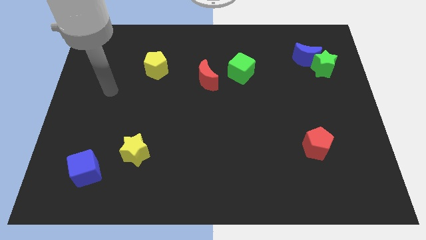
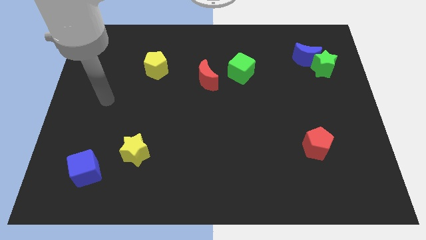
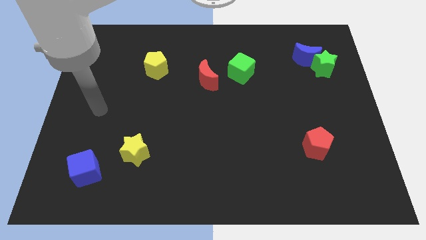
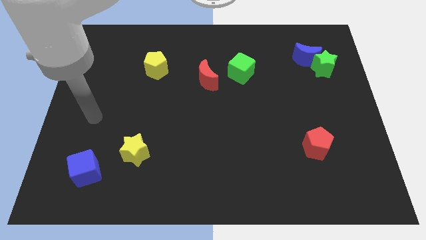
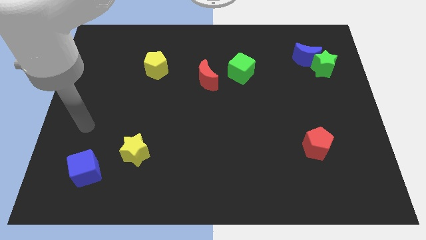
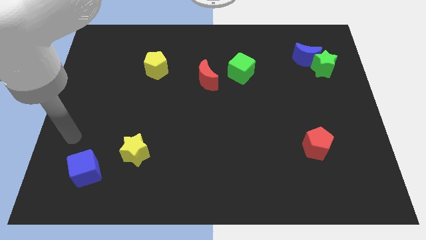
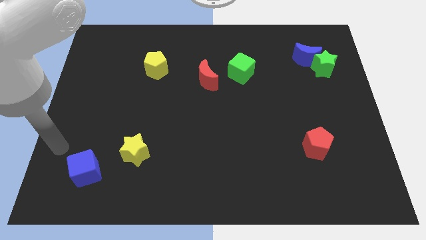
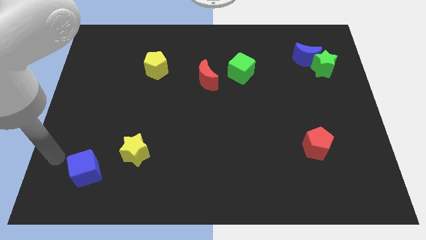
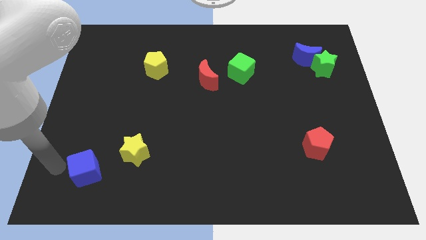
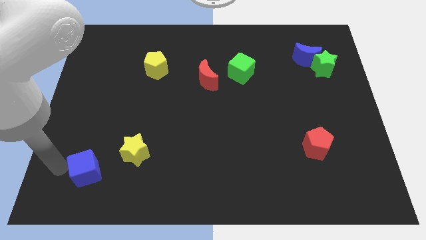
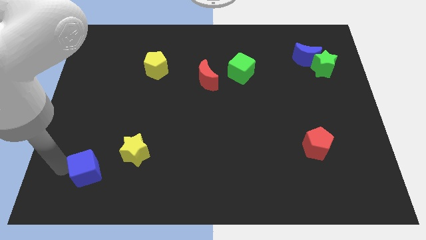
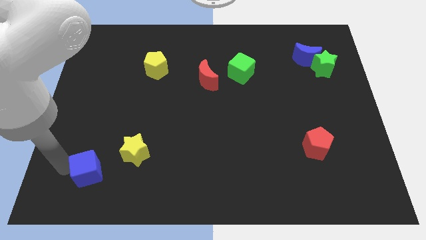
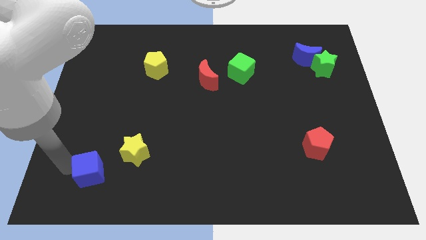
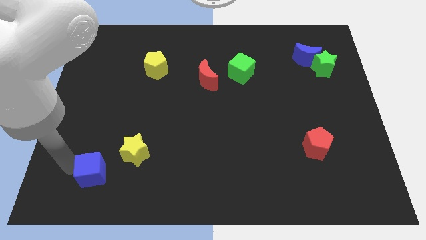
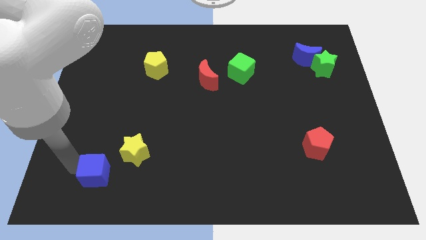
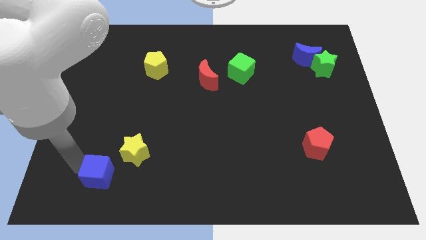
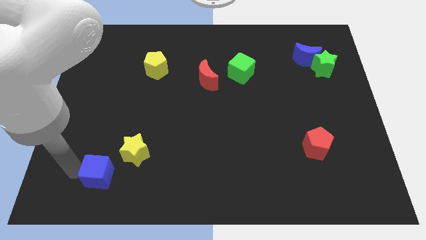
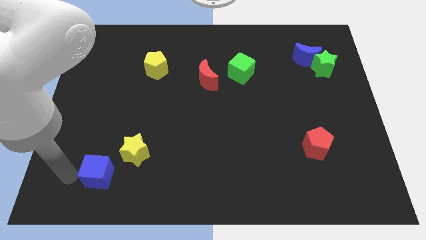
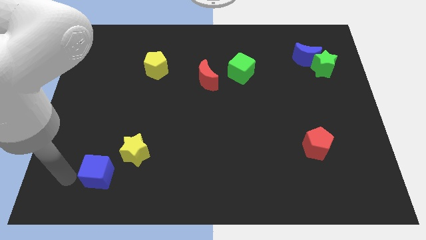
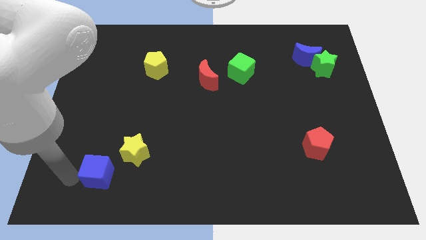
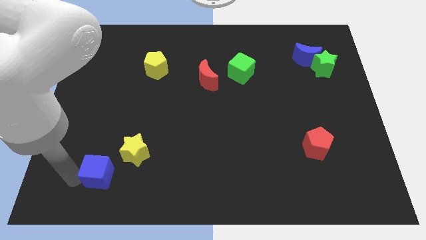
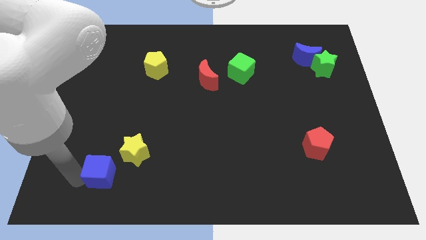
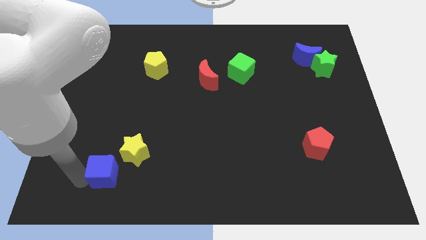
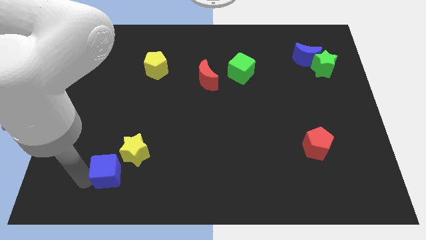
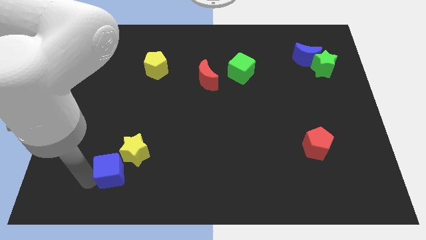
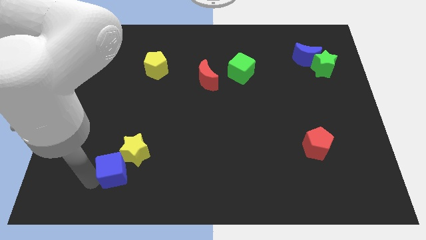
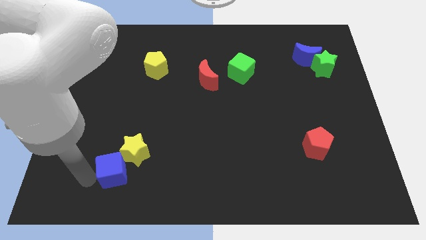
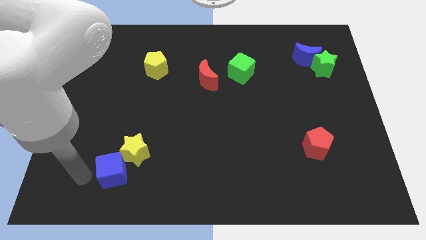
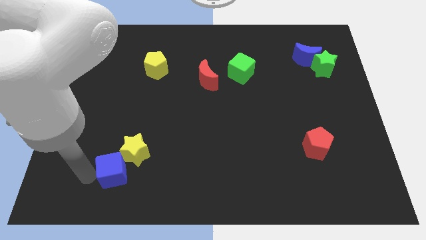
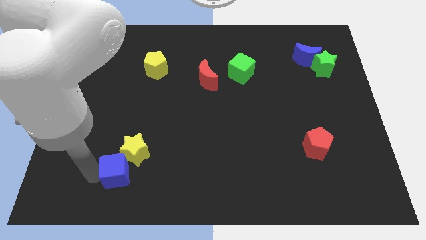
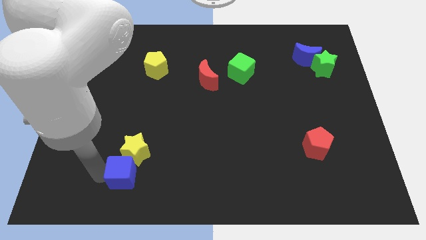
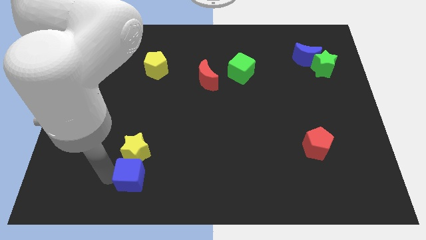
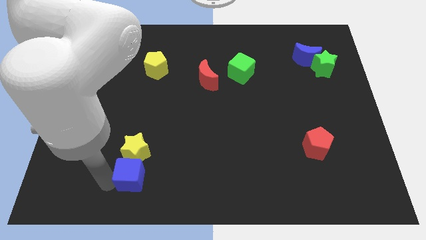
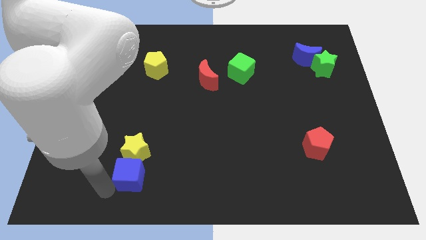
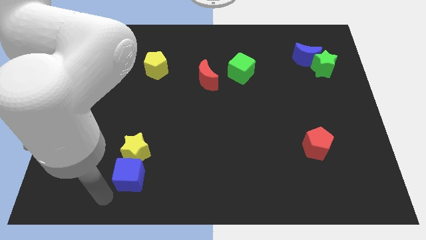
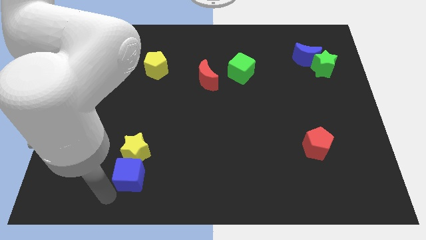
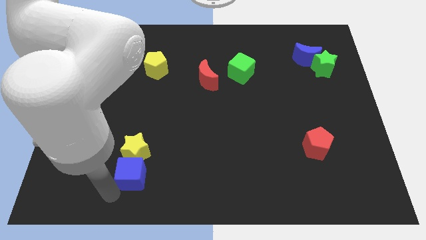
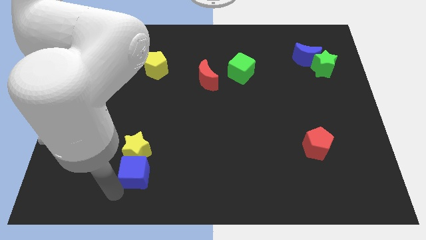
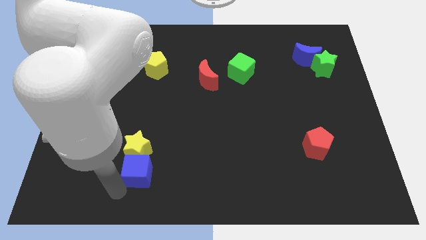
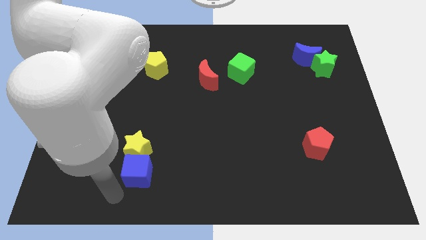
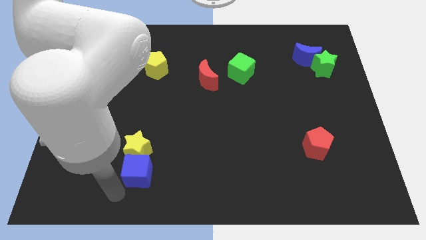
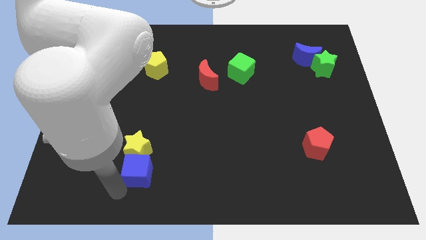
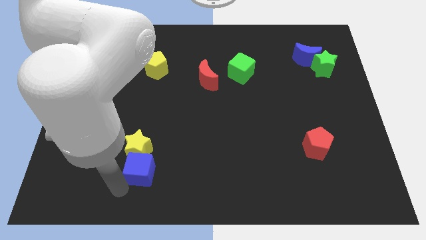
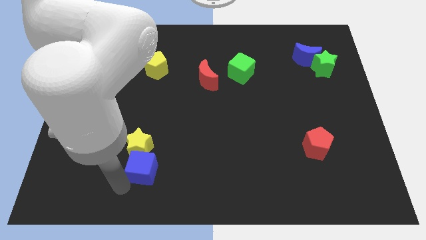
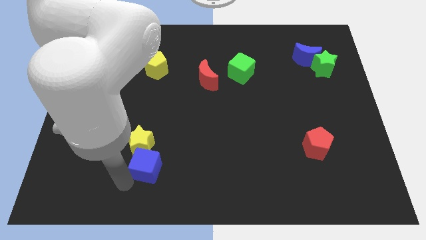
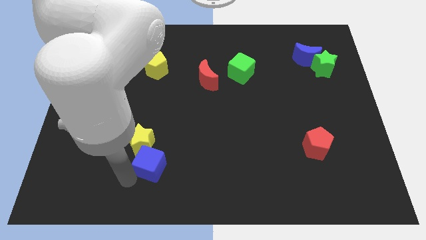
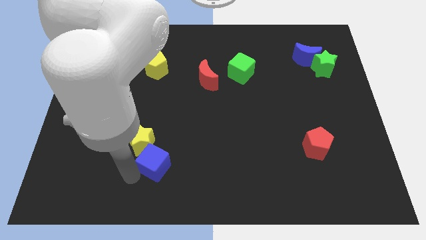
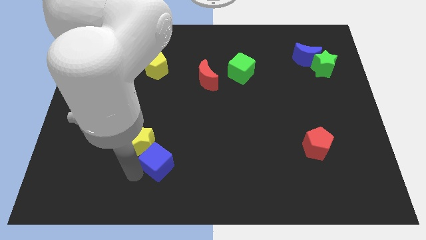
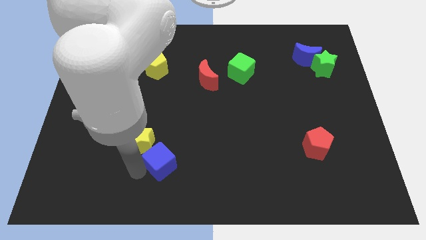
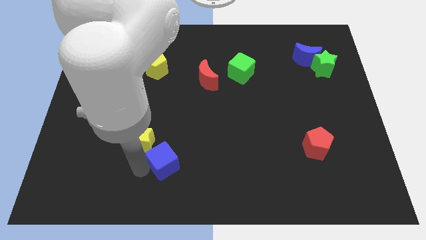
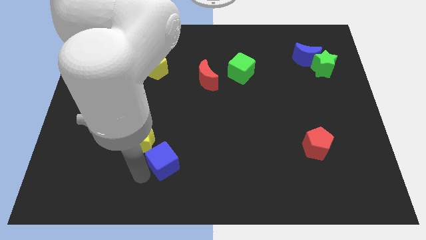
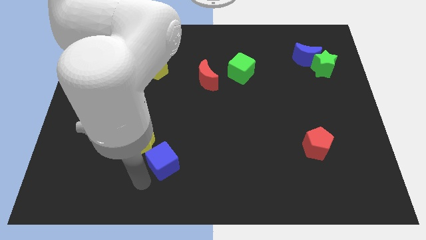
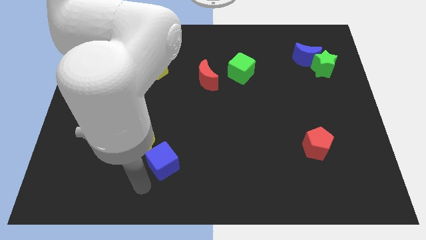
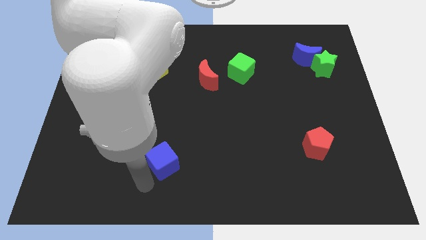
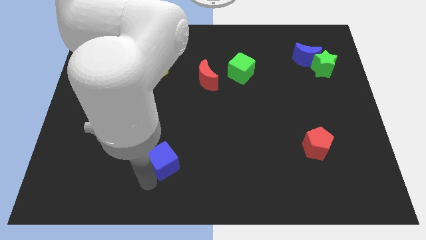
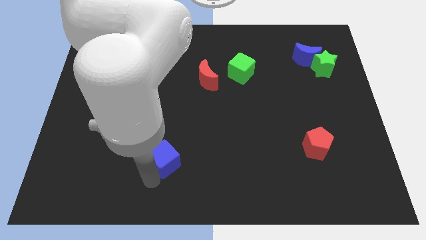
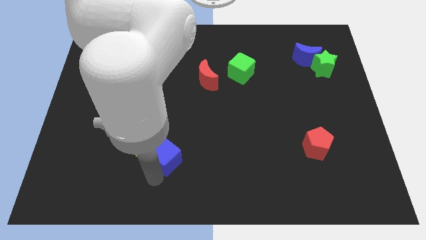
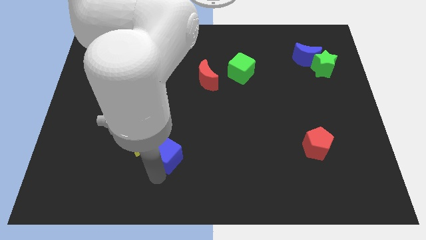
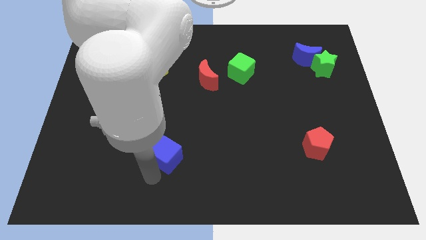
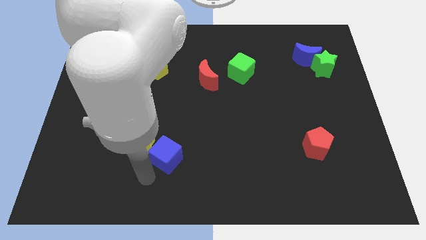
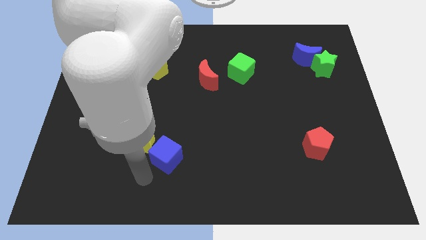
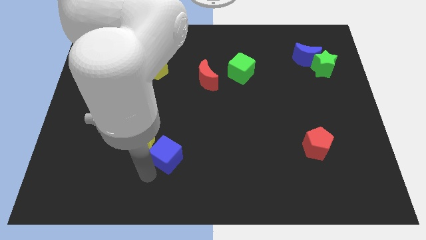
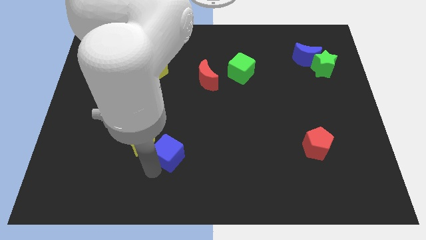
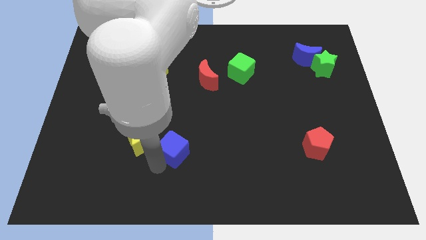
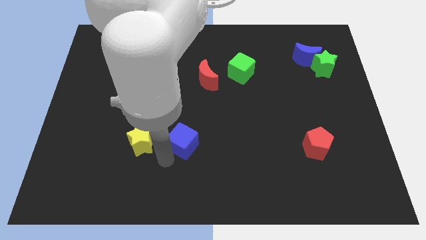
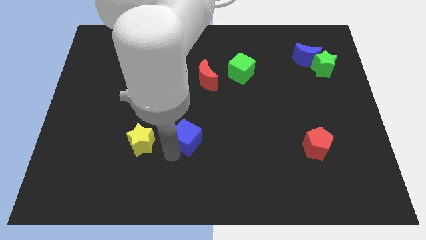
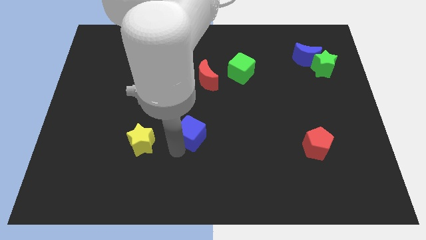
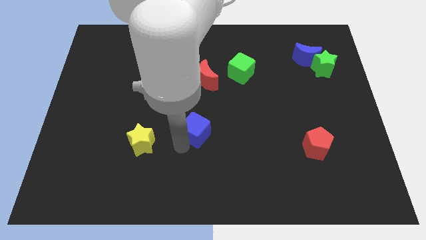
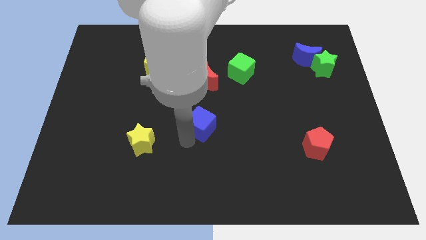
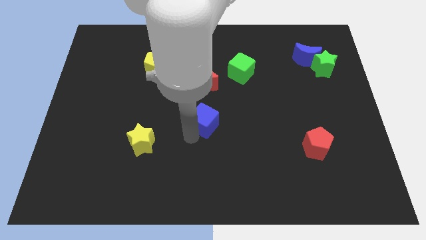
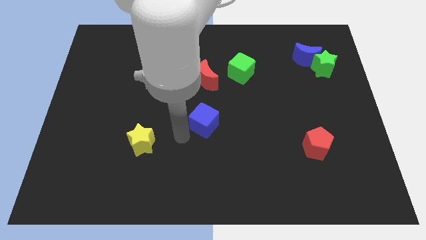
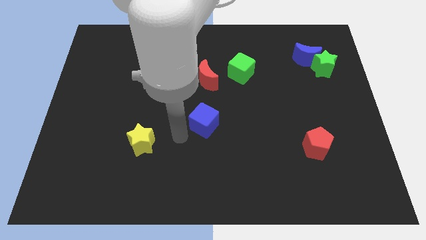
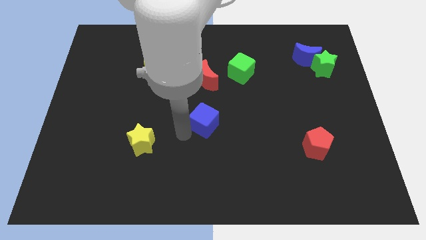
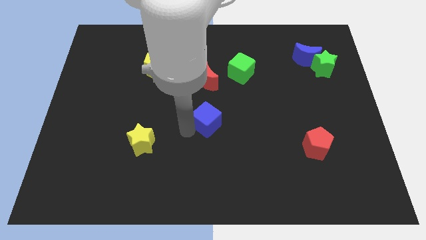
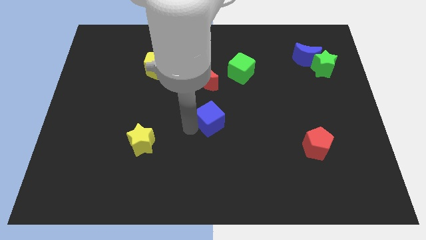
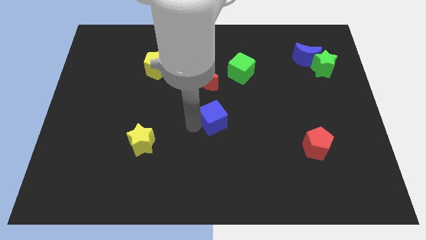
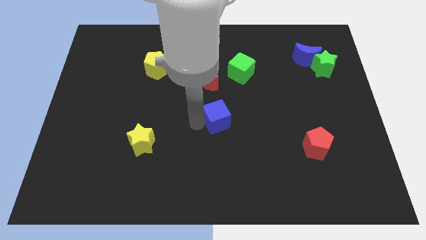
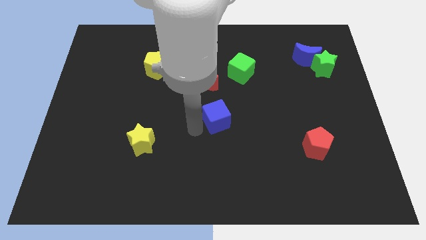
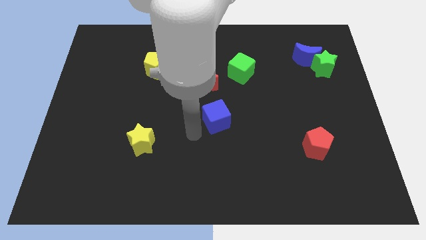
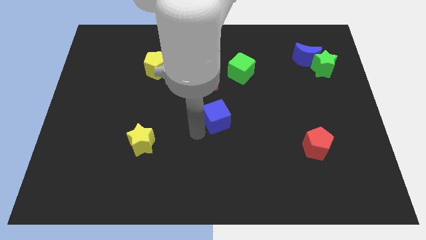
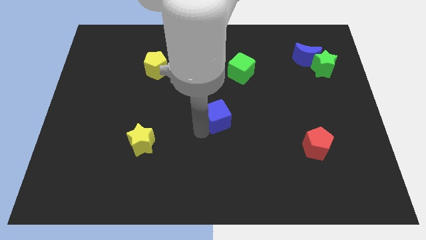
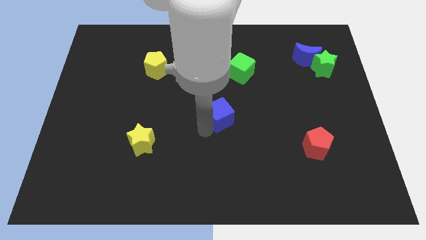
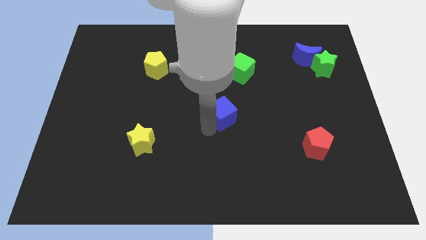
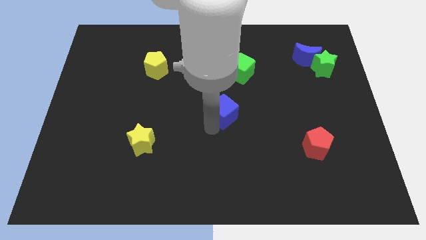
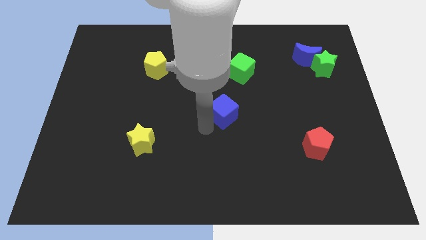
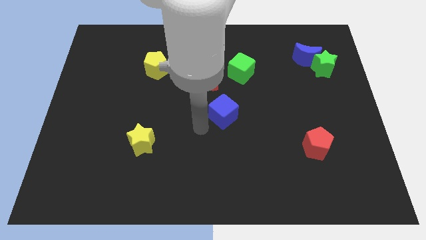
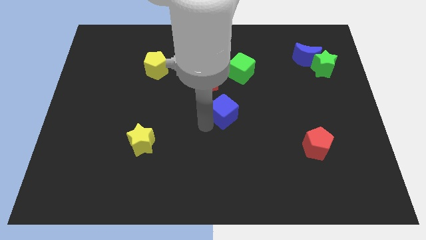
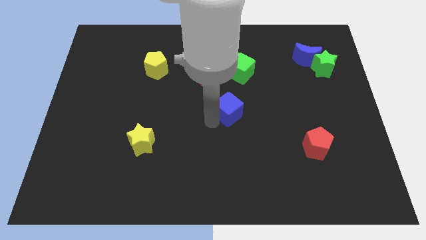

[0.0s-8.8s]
push the blue cube to the bottom side of the green cube
